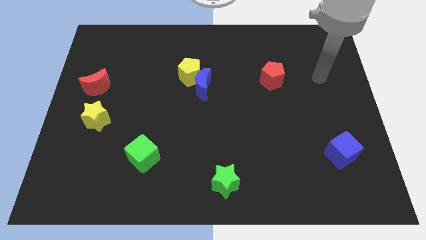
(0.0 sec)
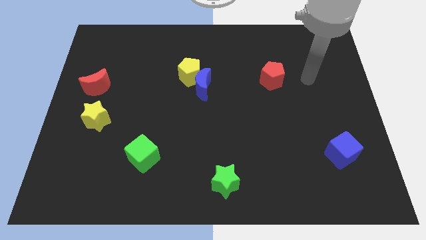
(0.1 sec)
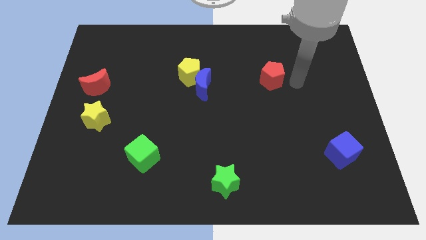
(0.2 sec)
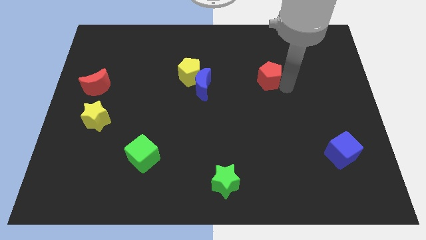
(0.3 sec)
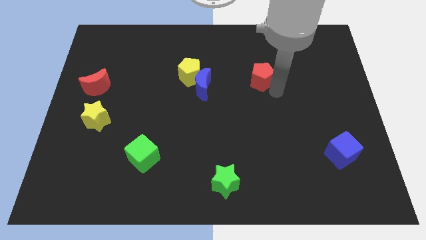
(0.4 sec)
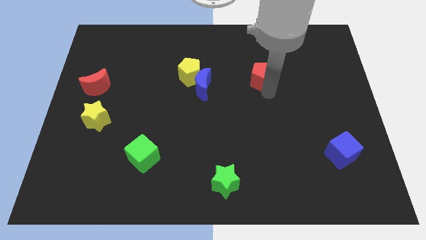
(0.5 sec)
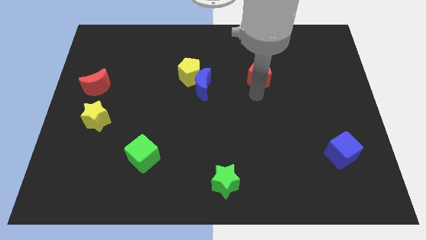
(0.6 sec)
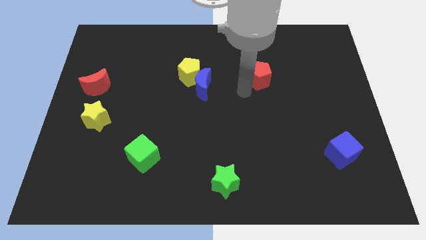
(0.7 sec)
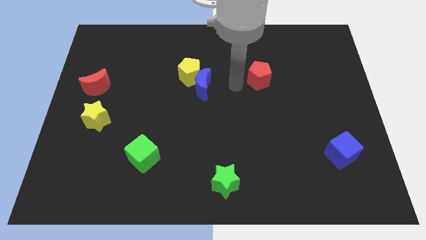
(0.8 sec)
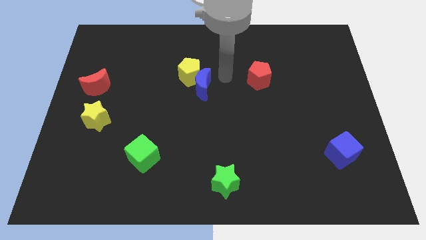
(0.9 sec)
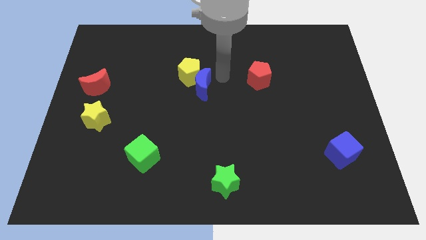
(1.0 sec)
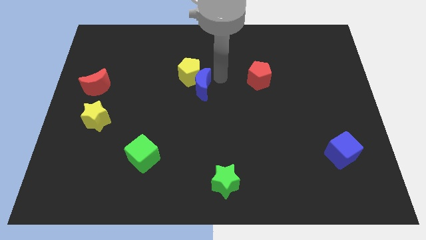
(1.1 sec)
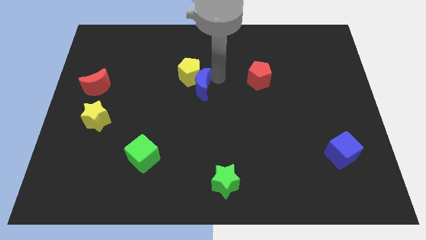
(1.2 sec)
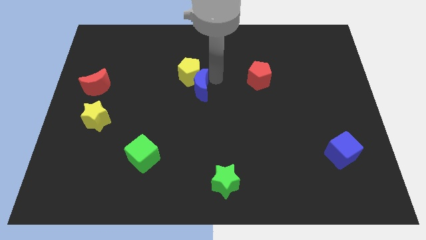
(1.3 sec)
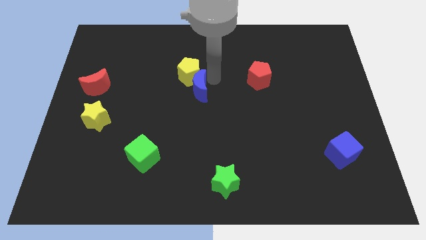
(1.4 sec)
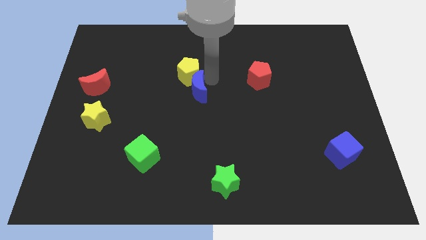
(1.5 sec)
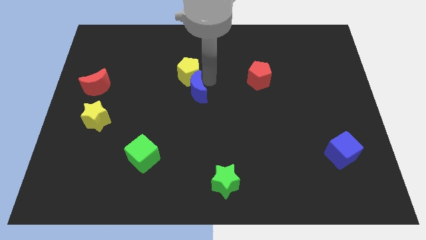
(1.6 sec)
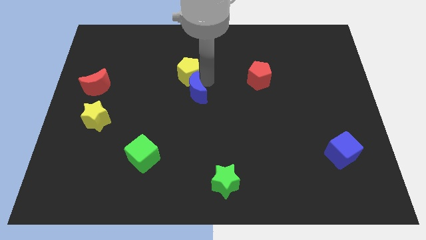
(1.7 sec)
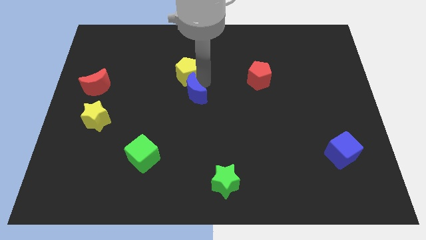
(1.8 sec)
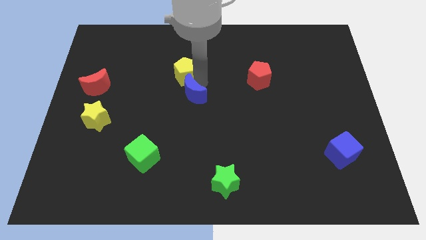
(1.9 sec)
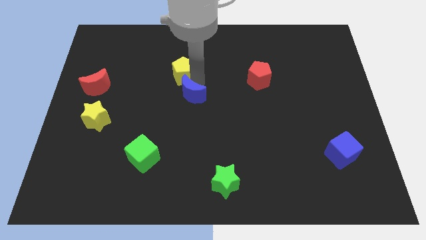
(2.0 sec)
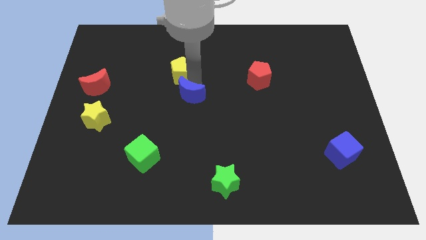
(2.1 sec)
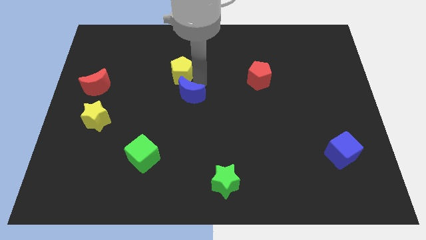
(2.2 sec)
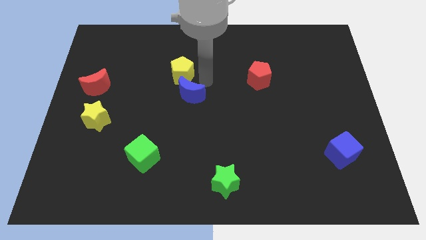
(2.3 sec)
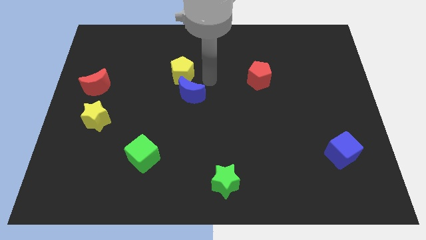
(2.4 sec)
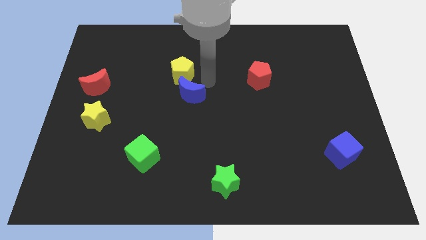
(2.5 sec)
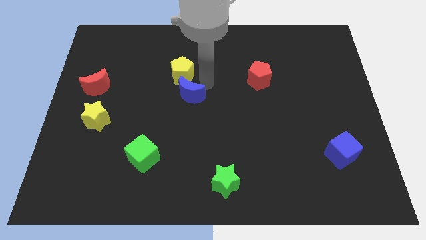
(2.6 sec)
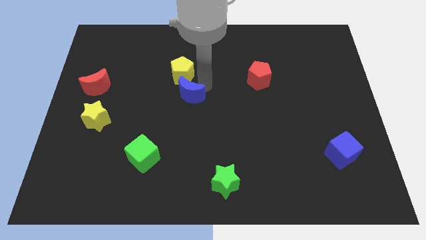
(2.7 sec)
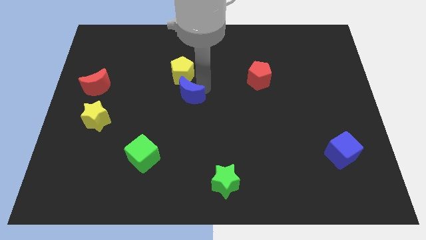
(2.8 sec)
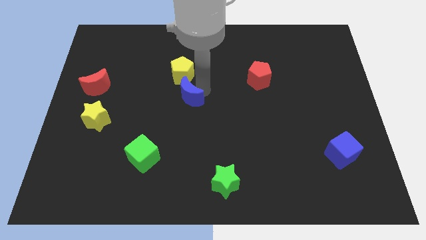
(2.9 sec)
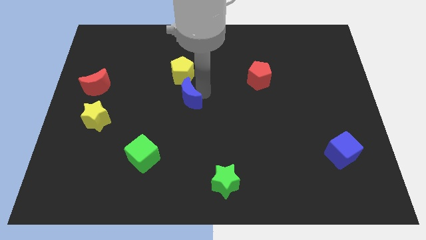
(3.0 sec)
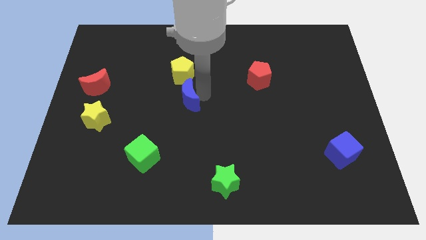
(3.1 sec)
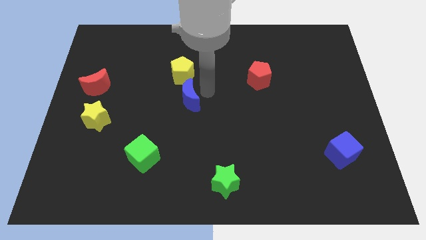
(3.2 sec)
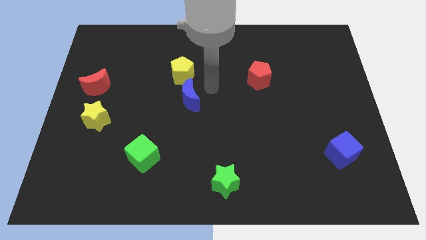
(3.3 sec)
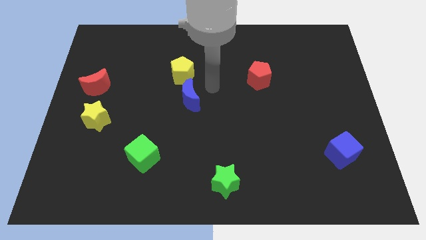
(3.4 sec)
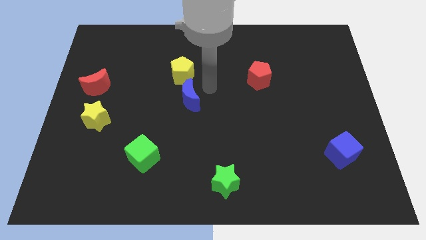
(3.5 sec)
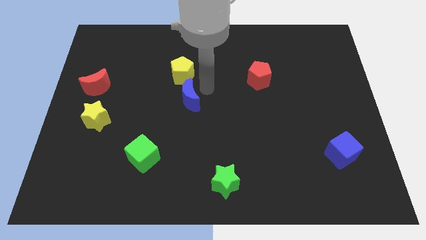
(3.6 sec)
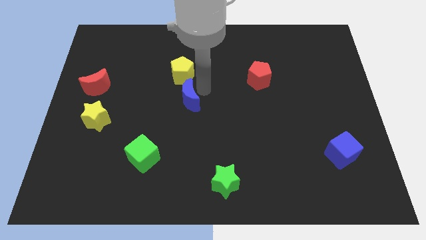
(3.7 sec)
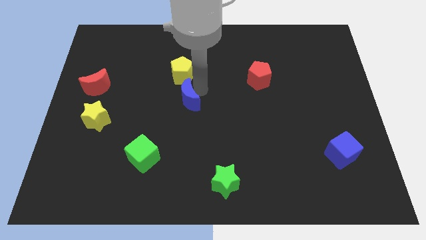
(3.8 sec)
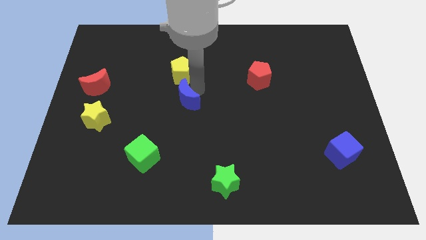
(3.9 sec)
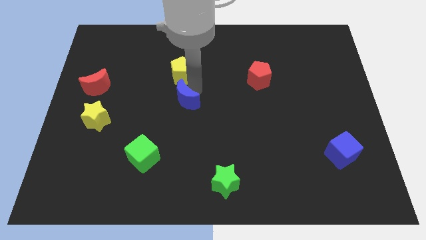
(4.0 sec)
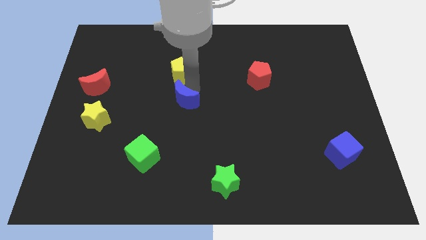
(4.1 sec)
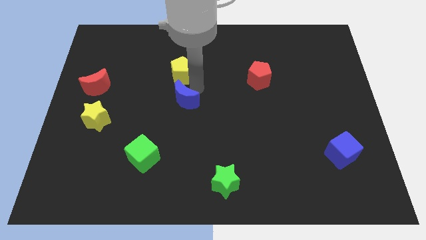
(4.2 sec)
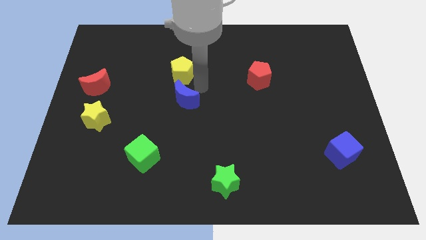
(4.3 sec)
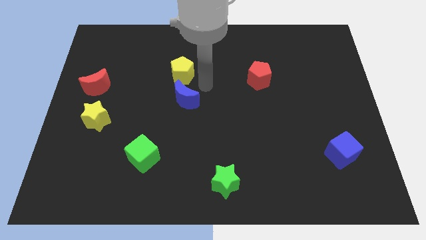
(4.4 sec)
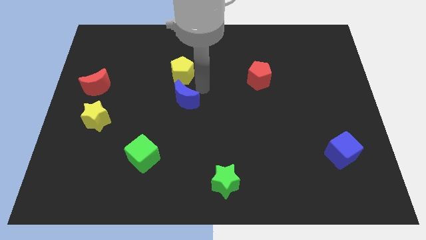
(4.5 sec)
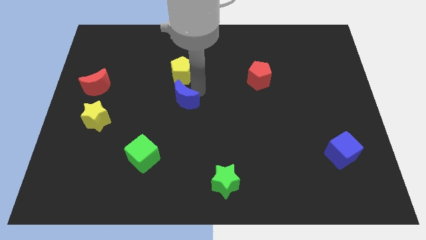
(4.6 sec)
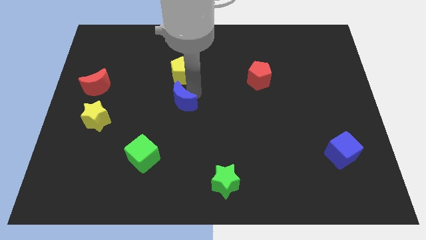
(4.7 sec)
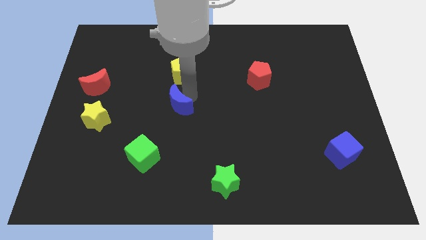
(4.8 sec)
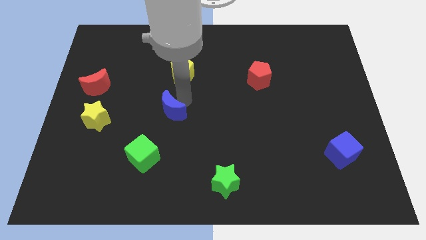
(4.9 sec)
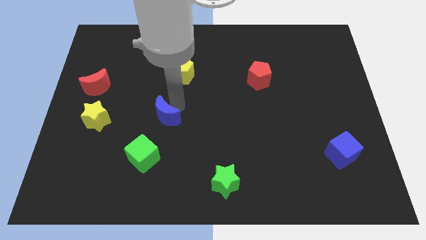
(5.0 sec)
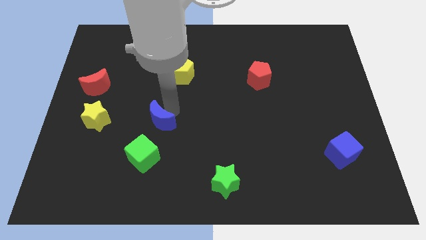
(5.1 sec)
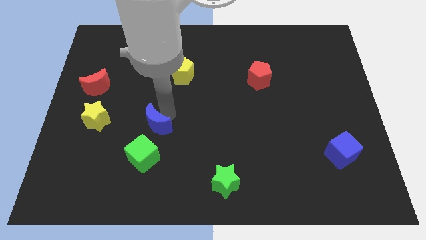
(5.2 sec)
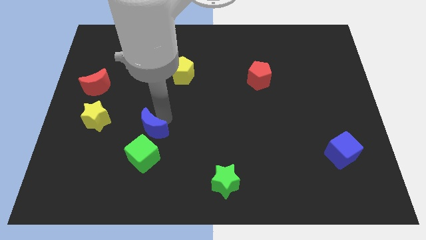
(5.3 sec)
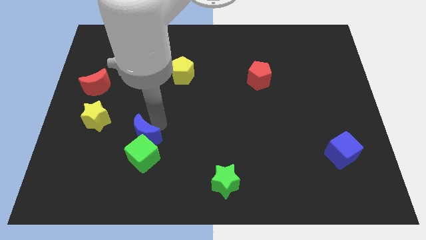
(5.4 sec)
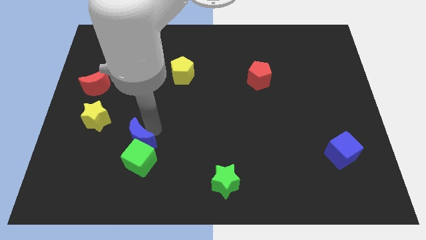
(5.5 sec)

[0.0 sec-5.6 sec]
move the blue moon downwards and then left

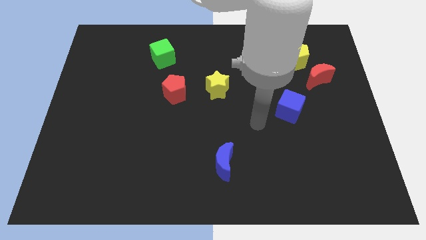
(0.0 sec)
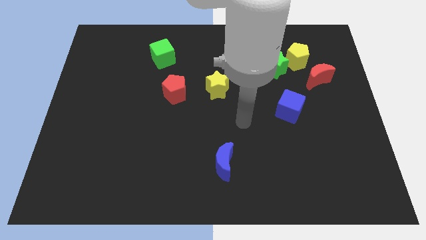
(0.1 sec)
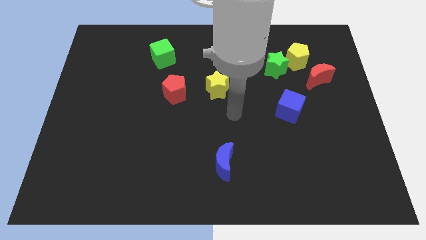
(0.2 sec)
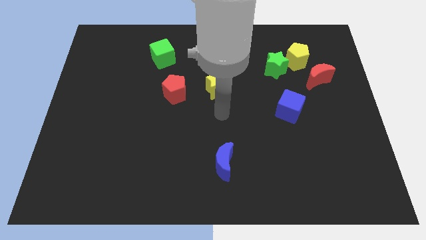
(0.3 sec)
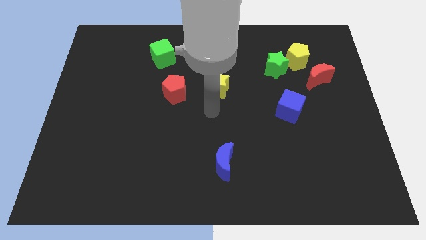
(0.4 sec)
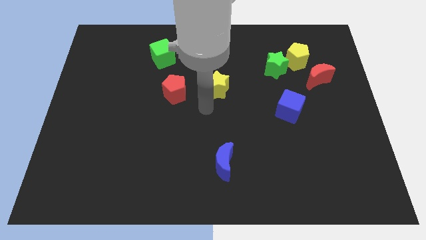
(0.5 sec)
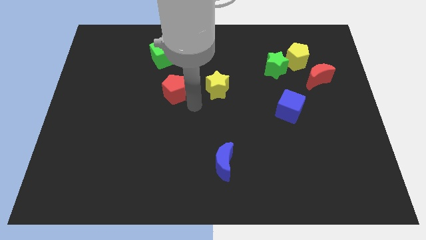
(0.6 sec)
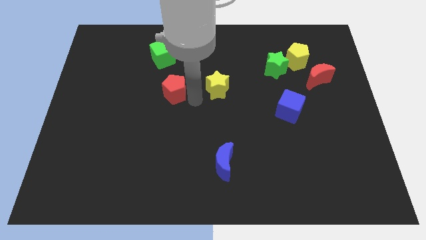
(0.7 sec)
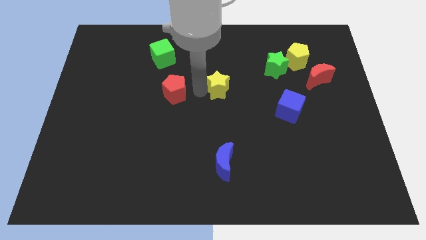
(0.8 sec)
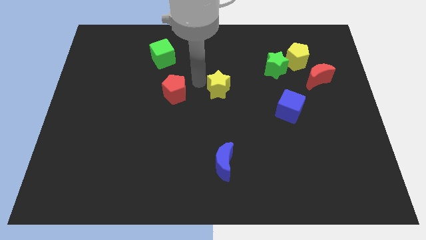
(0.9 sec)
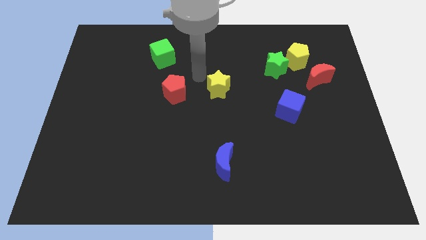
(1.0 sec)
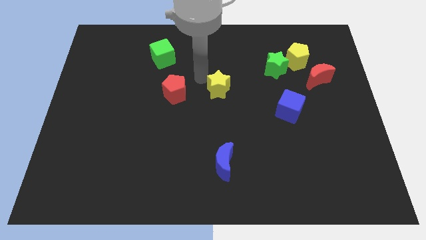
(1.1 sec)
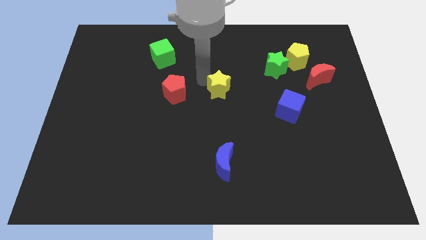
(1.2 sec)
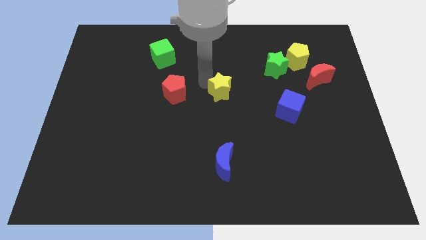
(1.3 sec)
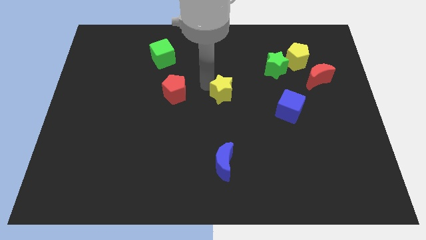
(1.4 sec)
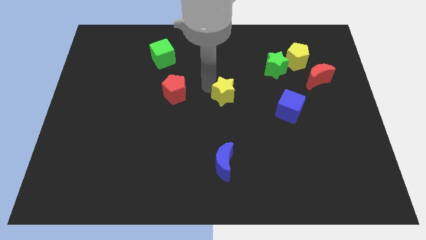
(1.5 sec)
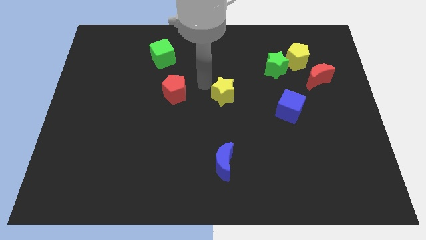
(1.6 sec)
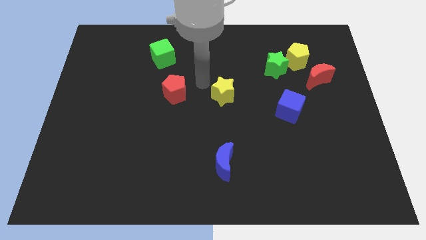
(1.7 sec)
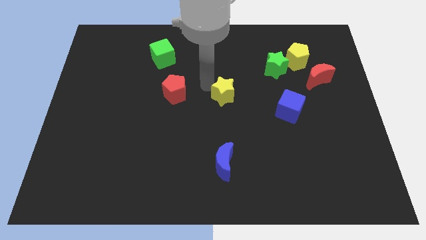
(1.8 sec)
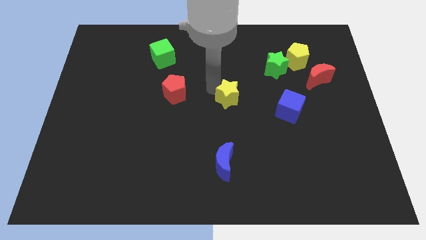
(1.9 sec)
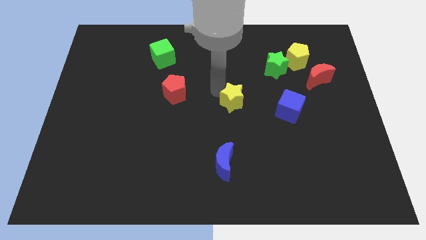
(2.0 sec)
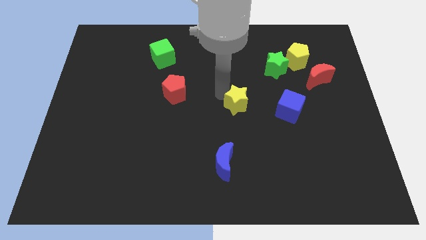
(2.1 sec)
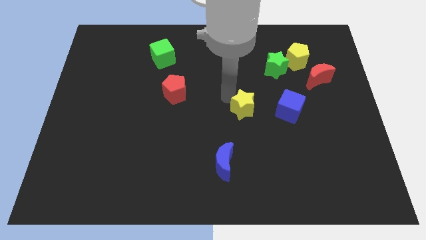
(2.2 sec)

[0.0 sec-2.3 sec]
move the yellow star a bit down and right

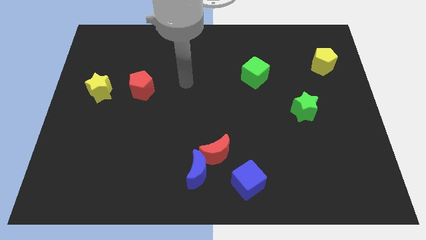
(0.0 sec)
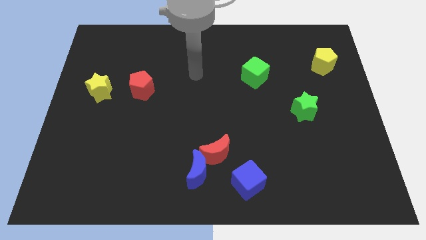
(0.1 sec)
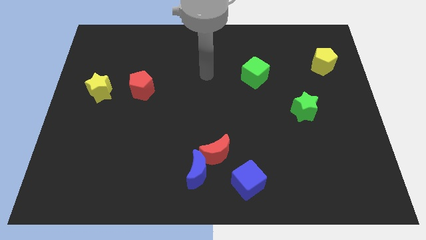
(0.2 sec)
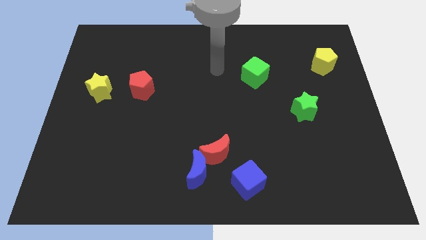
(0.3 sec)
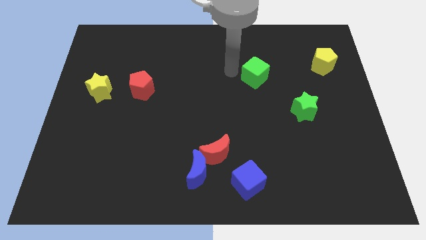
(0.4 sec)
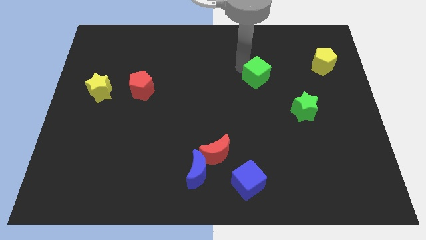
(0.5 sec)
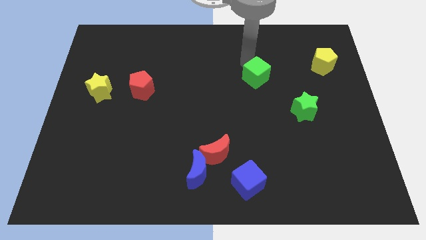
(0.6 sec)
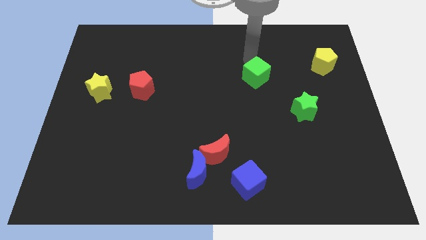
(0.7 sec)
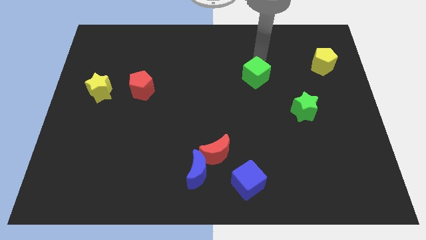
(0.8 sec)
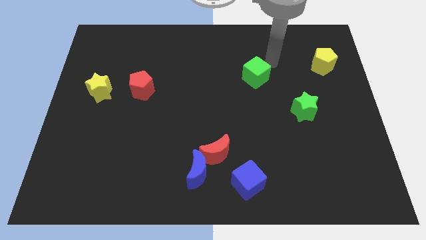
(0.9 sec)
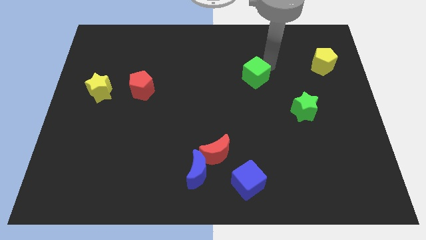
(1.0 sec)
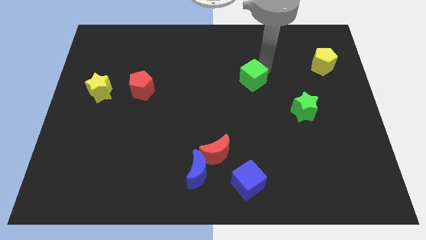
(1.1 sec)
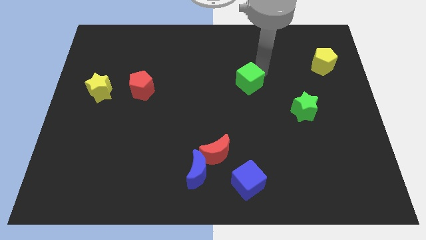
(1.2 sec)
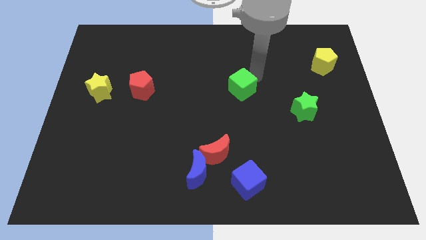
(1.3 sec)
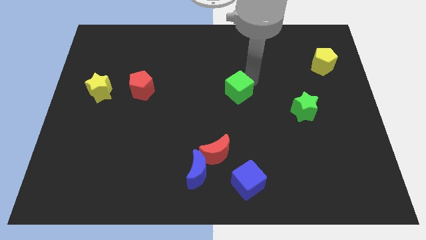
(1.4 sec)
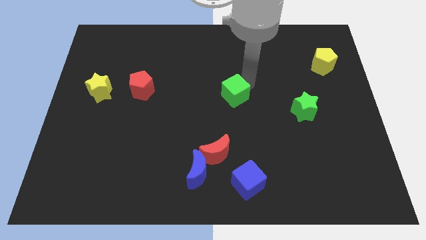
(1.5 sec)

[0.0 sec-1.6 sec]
slightly push the green cube downwards and to the left
